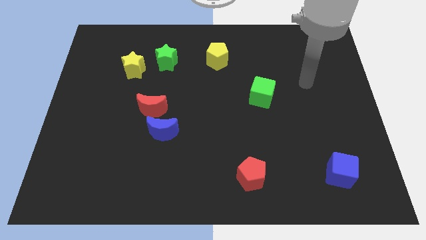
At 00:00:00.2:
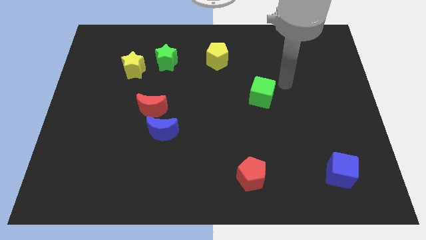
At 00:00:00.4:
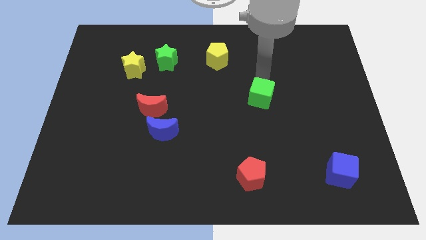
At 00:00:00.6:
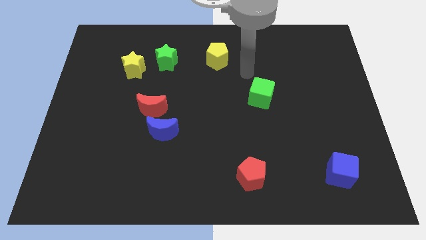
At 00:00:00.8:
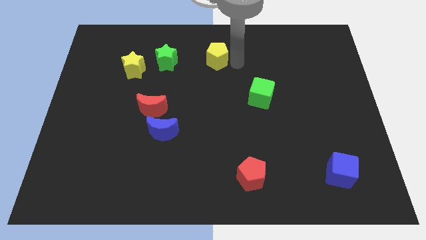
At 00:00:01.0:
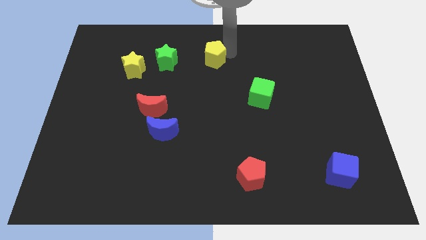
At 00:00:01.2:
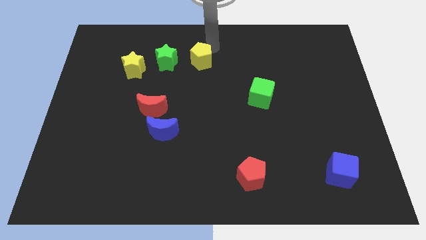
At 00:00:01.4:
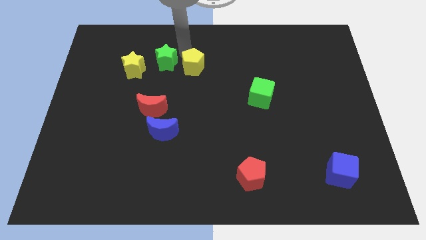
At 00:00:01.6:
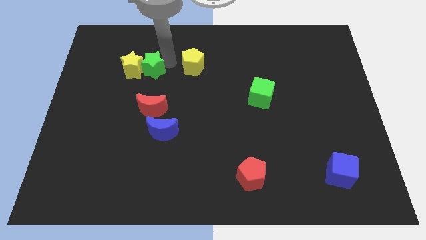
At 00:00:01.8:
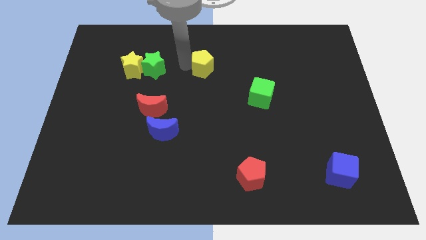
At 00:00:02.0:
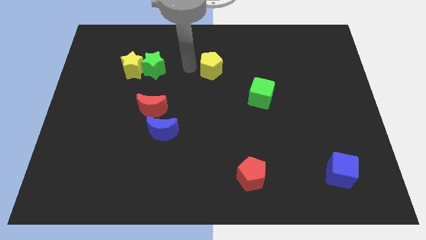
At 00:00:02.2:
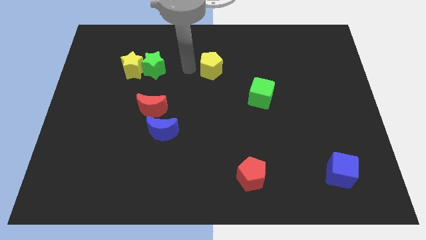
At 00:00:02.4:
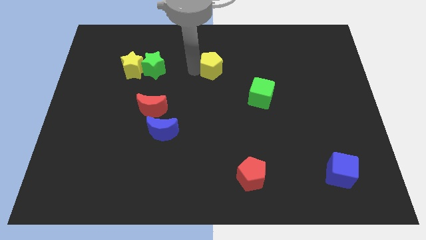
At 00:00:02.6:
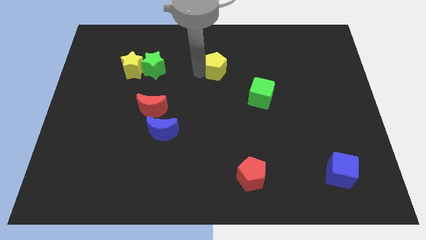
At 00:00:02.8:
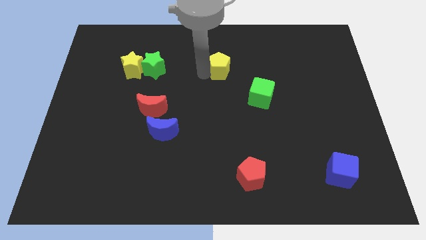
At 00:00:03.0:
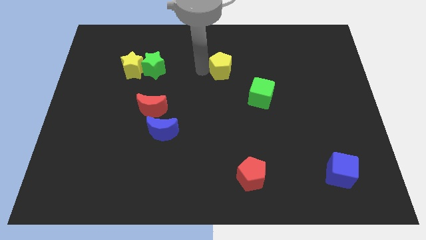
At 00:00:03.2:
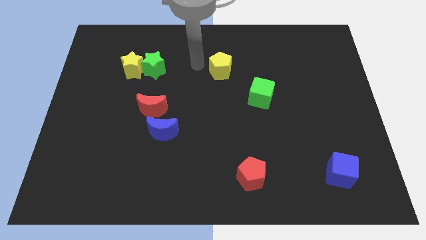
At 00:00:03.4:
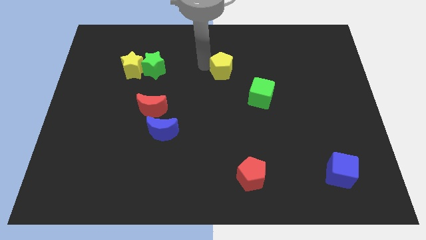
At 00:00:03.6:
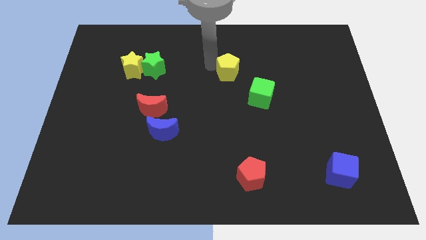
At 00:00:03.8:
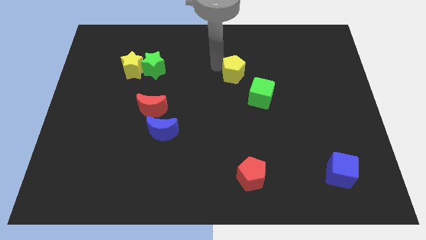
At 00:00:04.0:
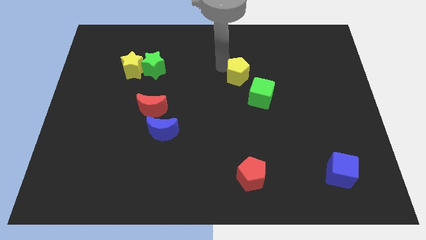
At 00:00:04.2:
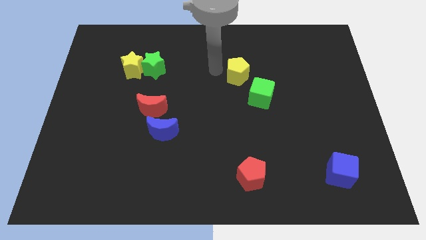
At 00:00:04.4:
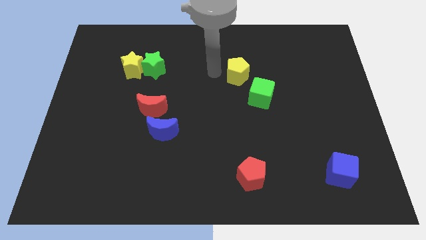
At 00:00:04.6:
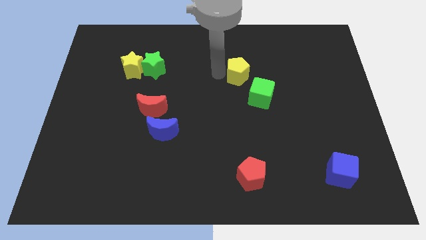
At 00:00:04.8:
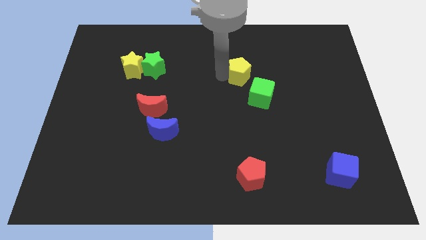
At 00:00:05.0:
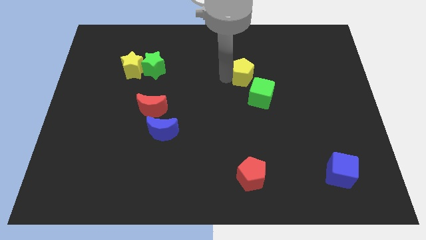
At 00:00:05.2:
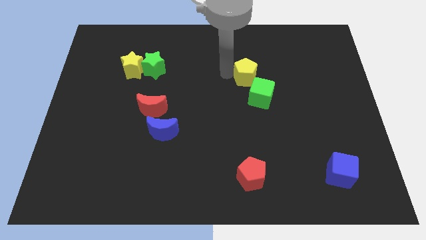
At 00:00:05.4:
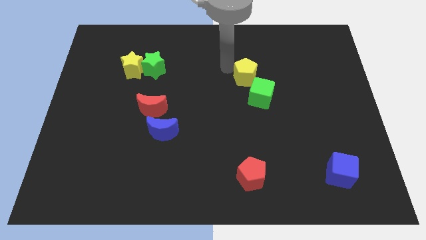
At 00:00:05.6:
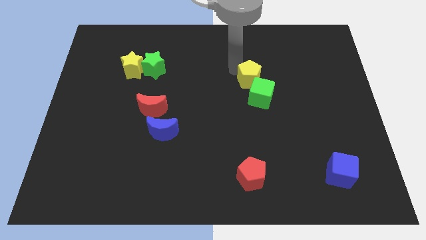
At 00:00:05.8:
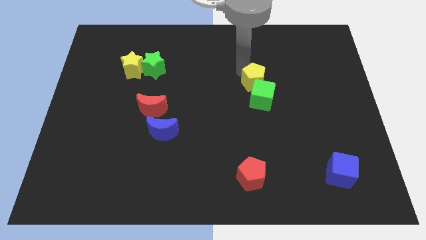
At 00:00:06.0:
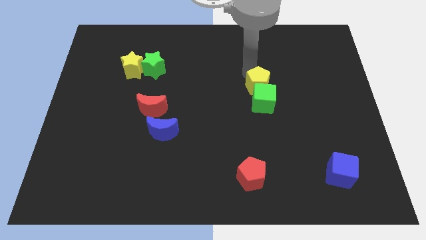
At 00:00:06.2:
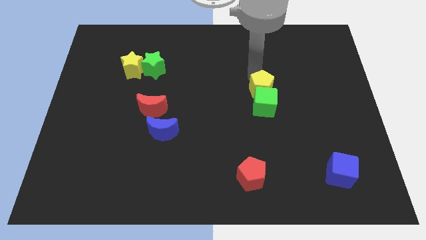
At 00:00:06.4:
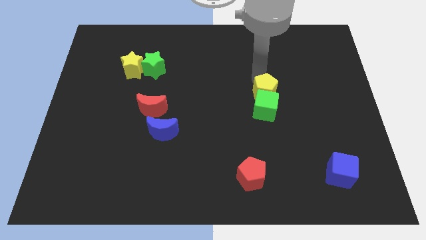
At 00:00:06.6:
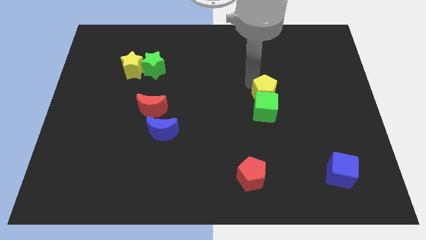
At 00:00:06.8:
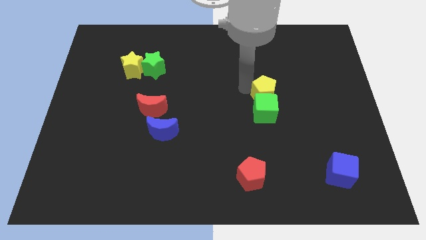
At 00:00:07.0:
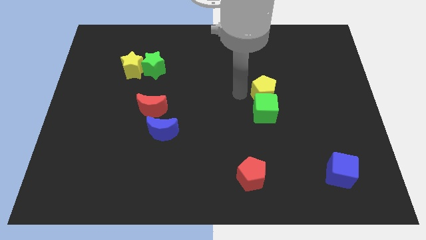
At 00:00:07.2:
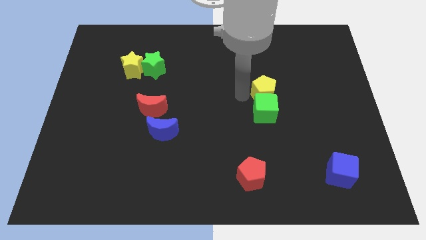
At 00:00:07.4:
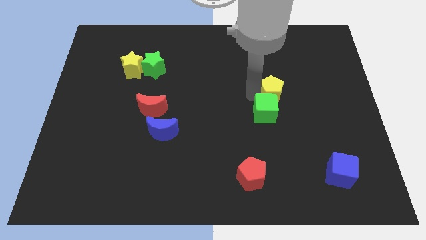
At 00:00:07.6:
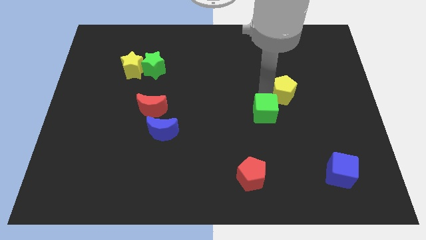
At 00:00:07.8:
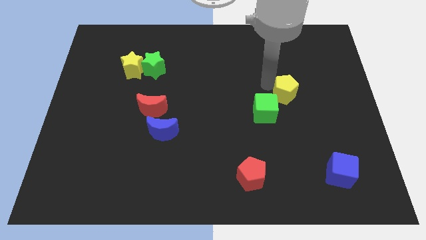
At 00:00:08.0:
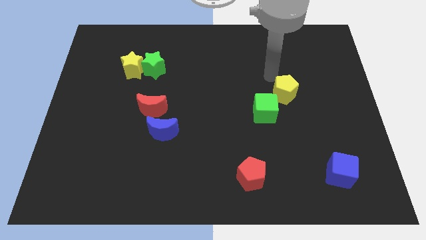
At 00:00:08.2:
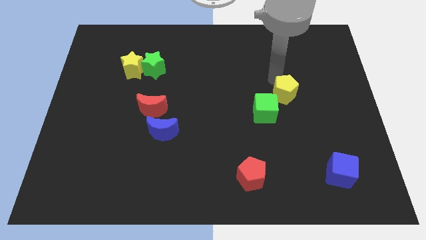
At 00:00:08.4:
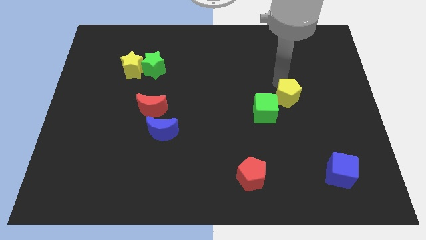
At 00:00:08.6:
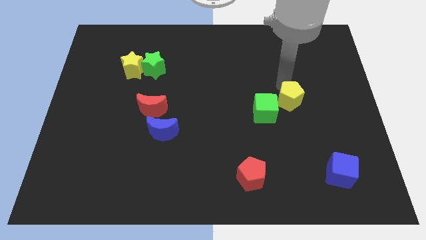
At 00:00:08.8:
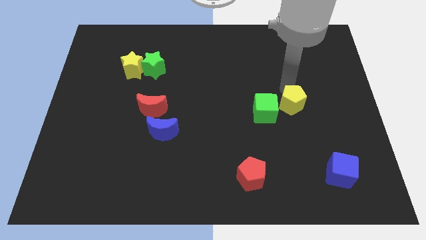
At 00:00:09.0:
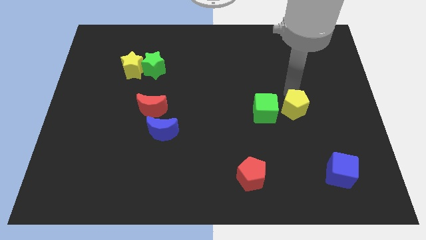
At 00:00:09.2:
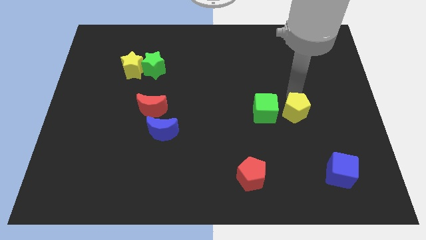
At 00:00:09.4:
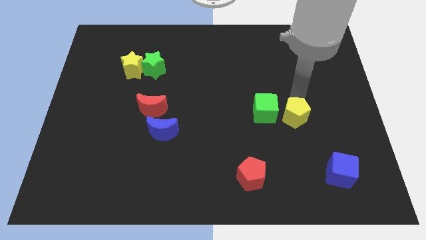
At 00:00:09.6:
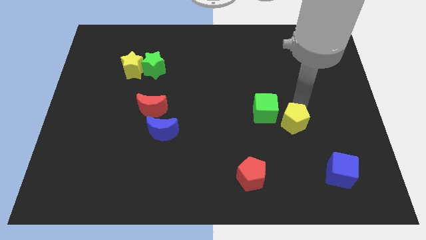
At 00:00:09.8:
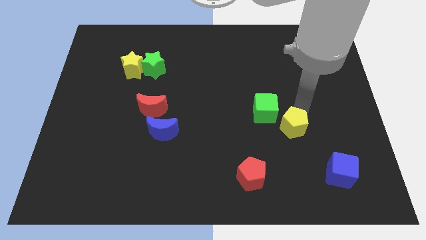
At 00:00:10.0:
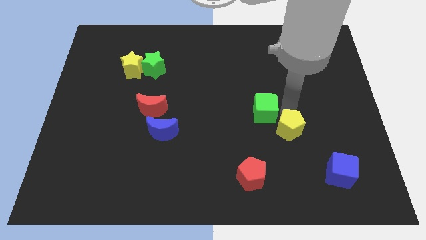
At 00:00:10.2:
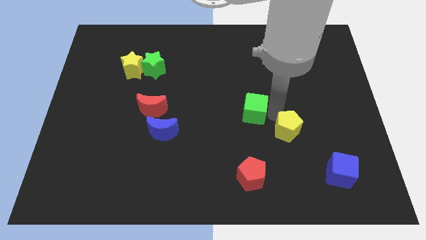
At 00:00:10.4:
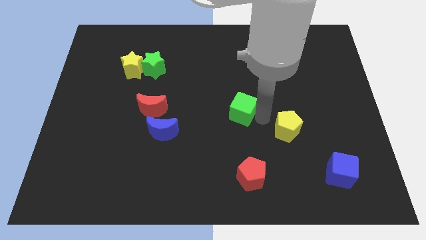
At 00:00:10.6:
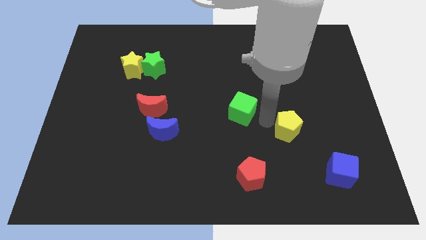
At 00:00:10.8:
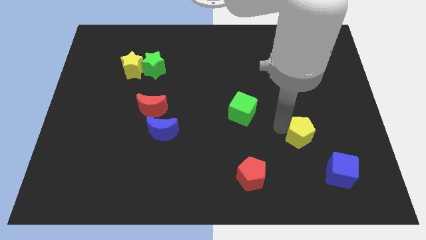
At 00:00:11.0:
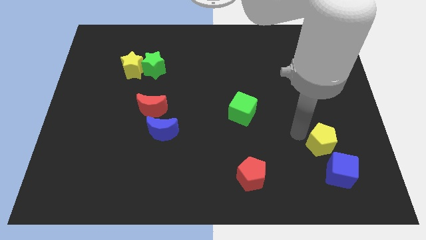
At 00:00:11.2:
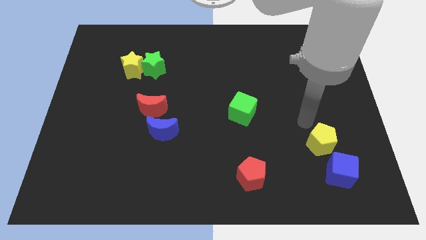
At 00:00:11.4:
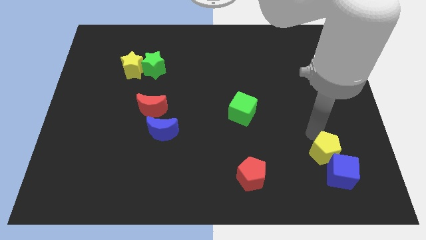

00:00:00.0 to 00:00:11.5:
slide the yellow pentagon to the blue cube

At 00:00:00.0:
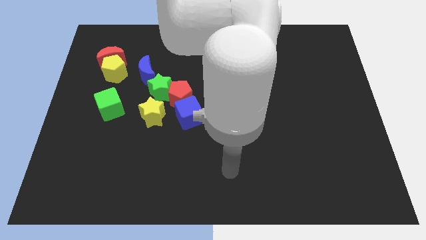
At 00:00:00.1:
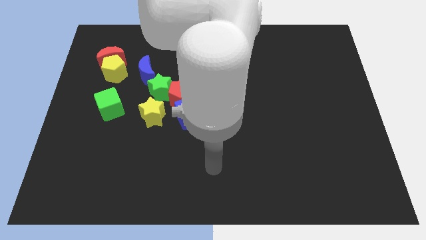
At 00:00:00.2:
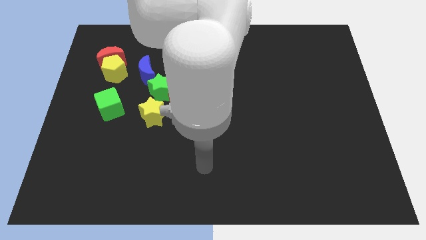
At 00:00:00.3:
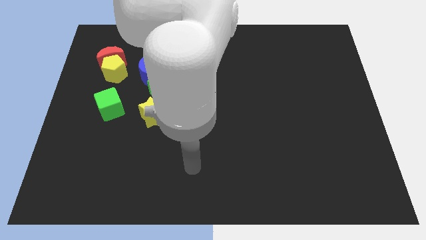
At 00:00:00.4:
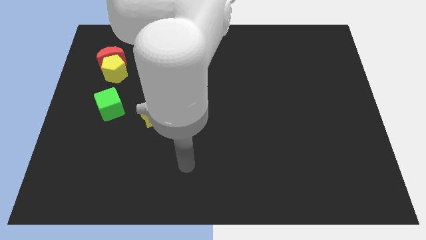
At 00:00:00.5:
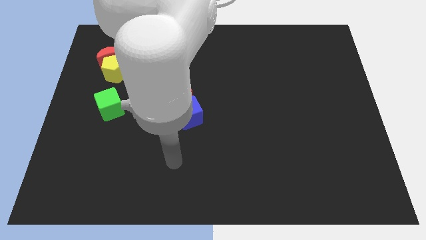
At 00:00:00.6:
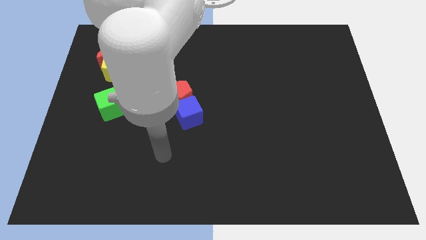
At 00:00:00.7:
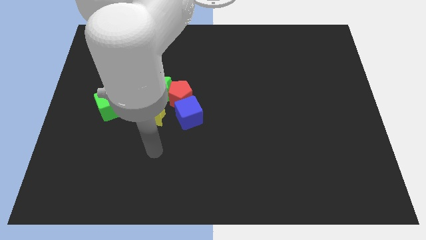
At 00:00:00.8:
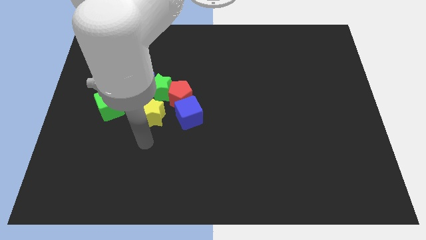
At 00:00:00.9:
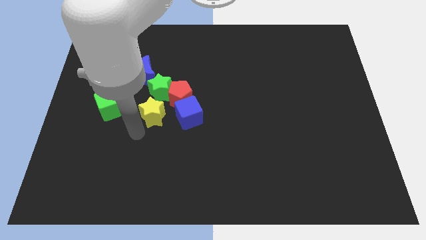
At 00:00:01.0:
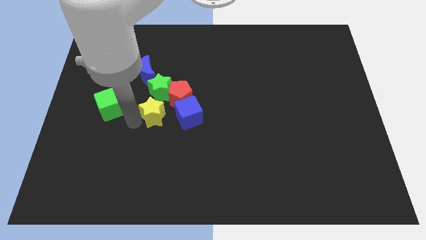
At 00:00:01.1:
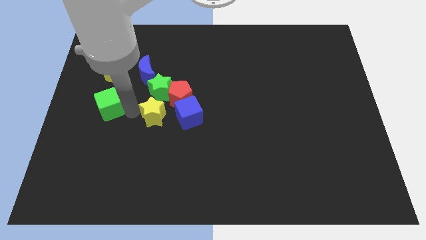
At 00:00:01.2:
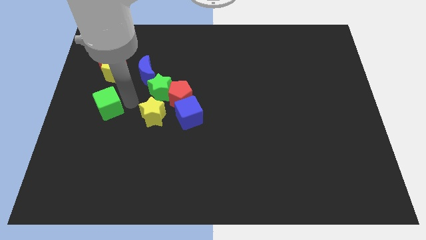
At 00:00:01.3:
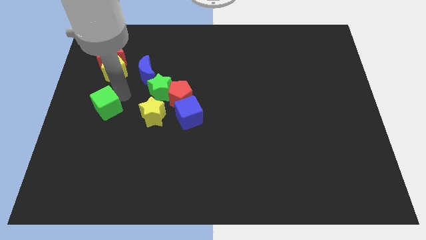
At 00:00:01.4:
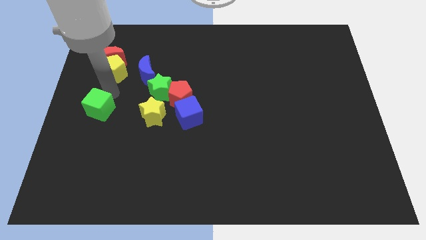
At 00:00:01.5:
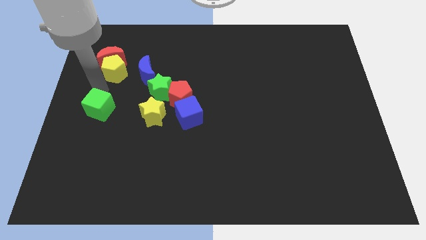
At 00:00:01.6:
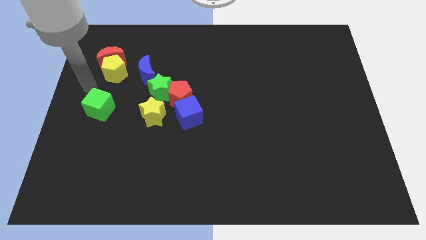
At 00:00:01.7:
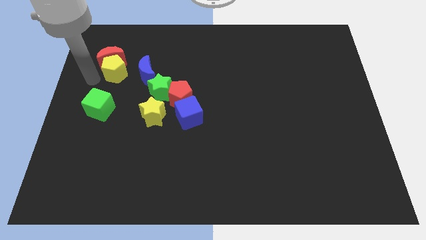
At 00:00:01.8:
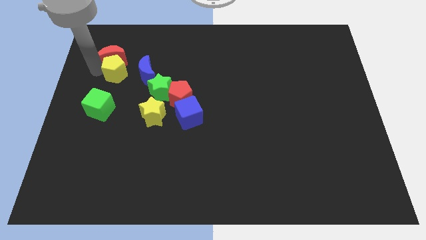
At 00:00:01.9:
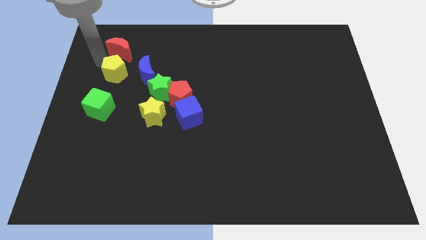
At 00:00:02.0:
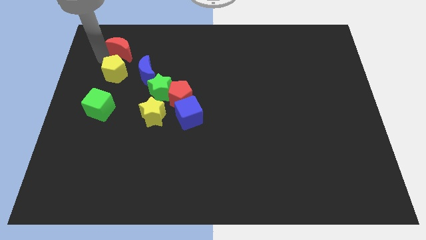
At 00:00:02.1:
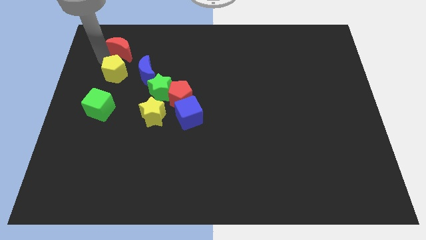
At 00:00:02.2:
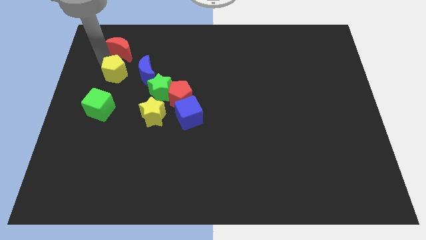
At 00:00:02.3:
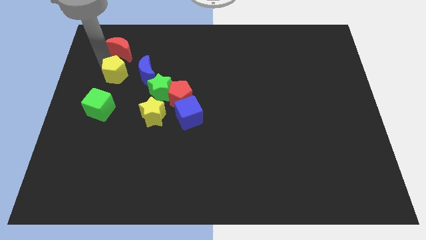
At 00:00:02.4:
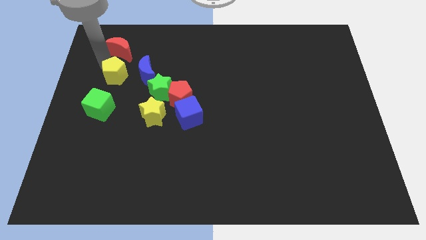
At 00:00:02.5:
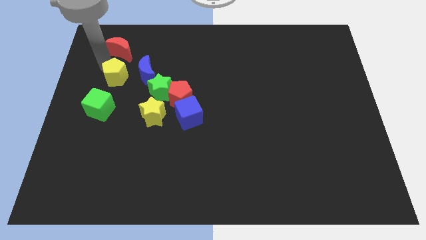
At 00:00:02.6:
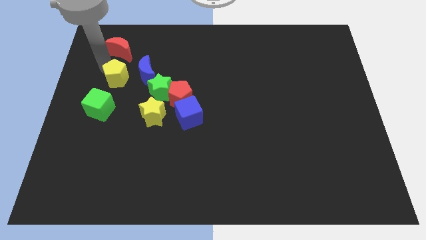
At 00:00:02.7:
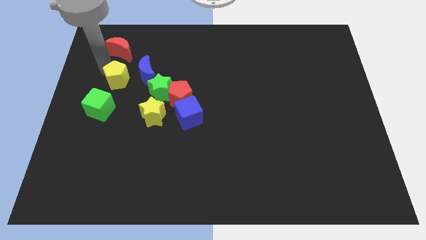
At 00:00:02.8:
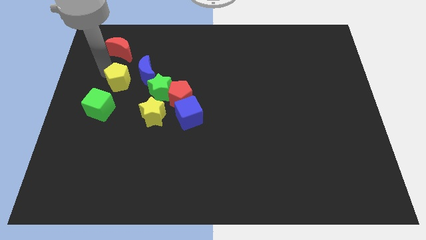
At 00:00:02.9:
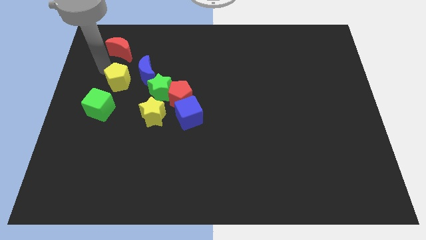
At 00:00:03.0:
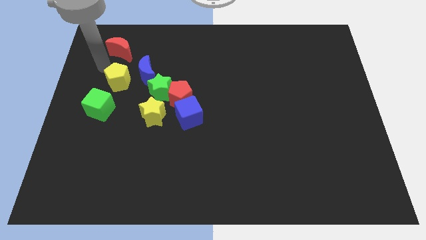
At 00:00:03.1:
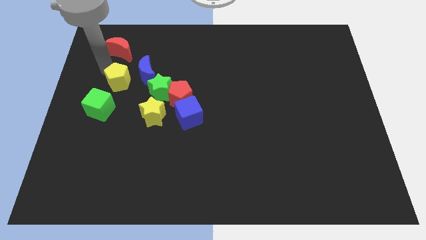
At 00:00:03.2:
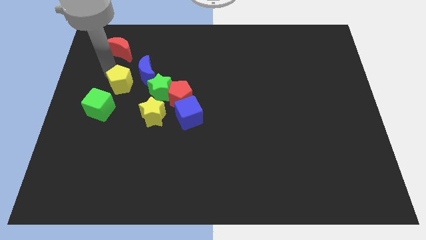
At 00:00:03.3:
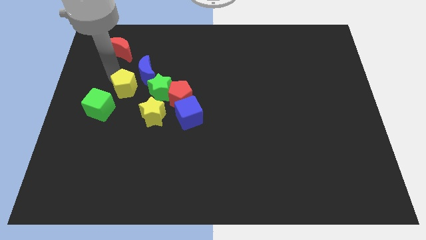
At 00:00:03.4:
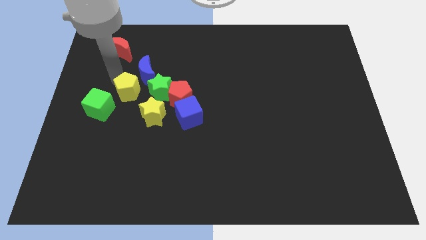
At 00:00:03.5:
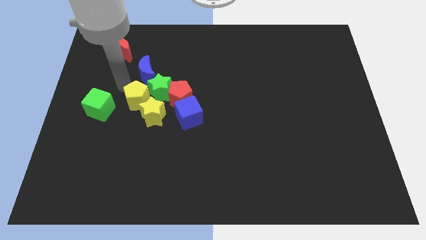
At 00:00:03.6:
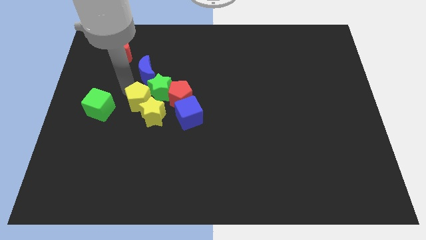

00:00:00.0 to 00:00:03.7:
put the yellow pentagon to the yellow star
